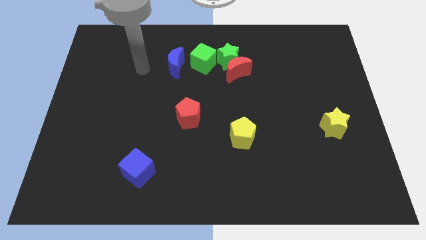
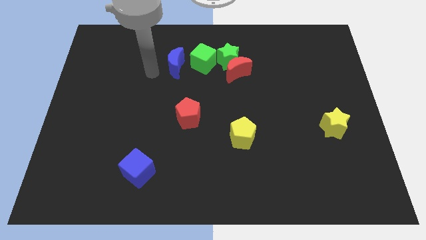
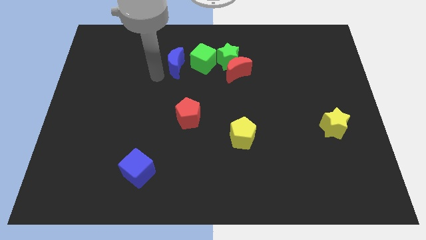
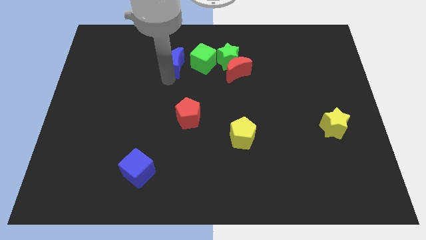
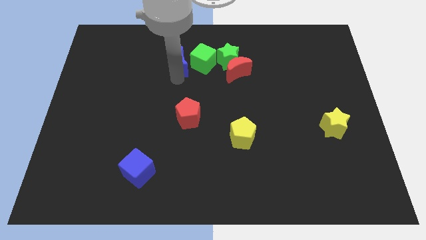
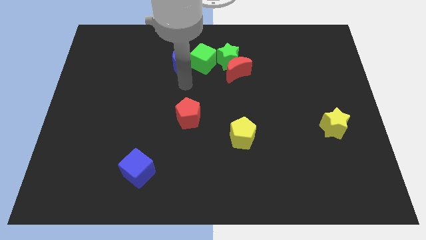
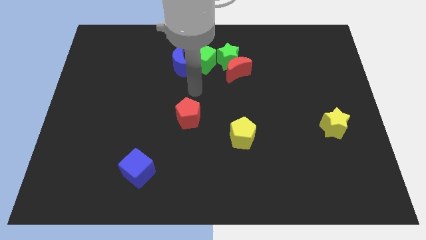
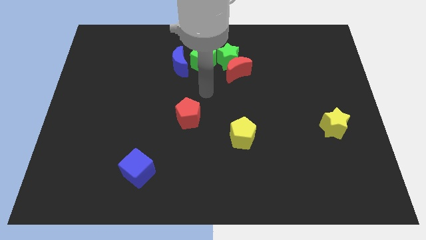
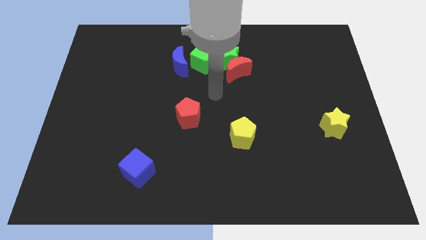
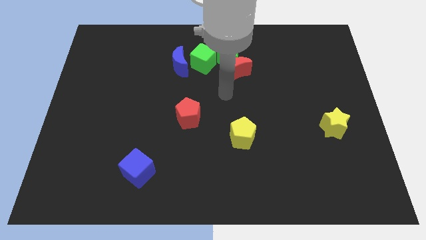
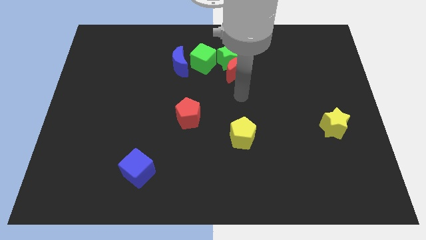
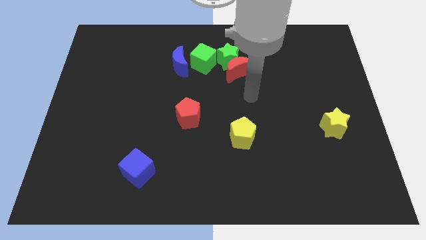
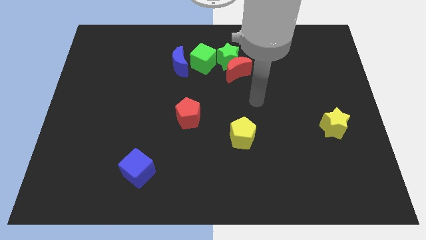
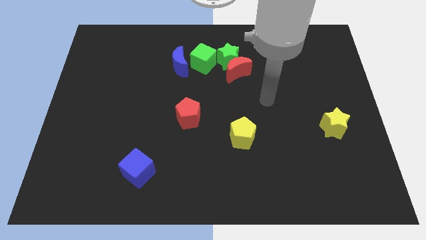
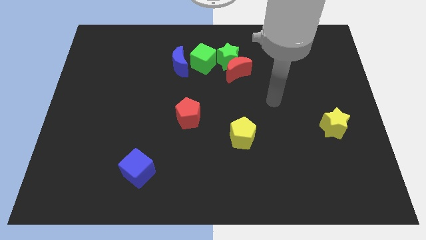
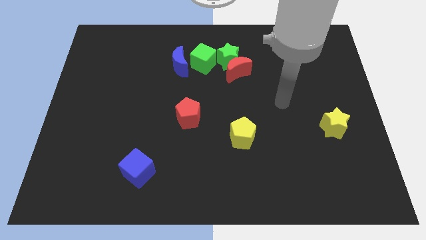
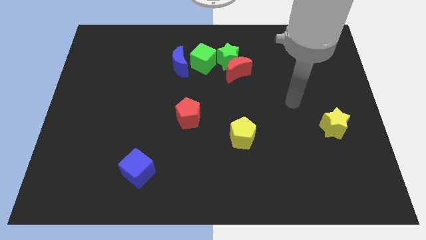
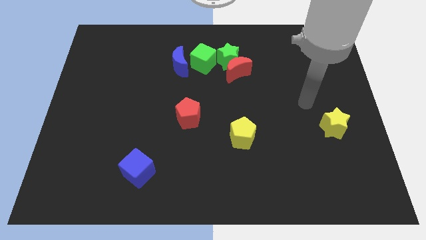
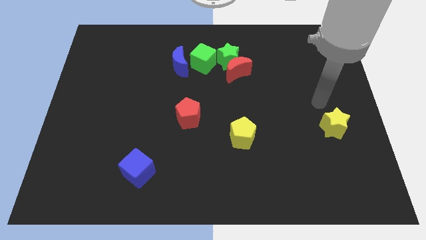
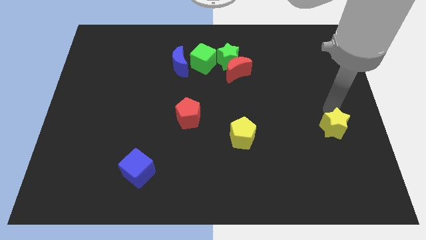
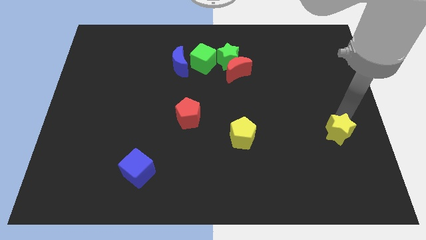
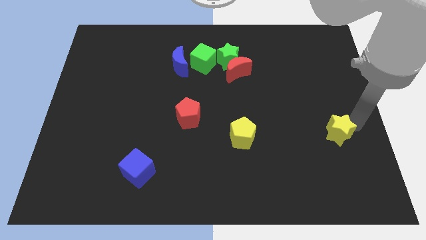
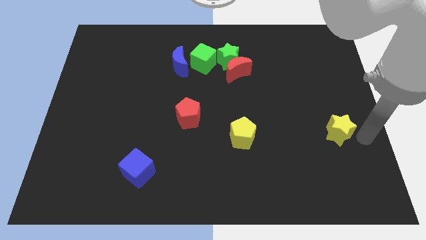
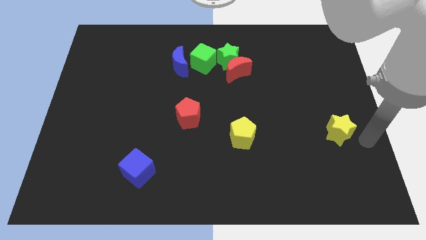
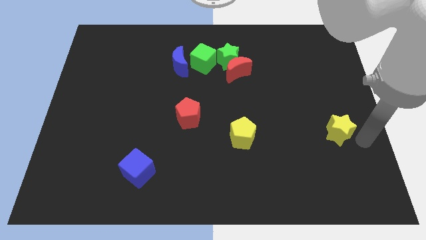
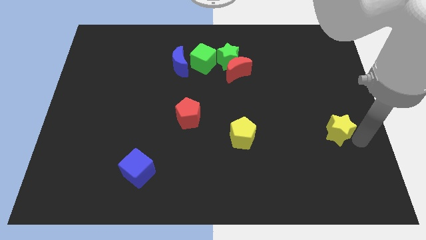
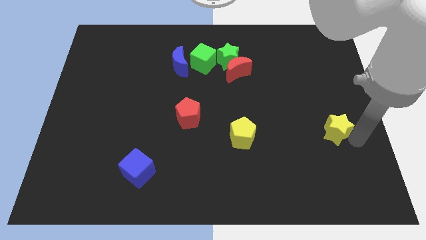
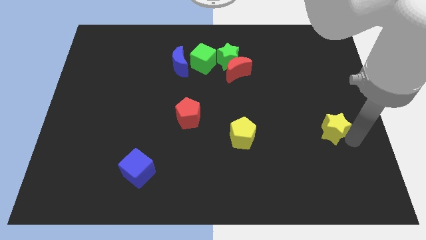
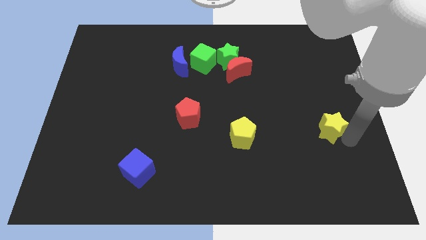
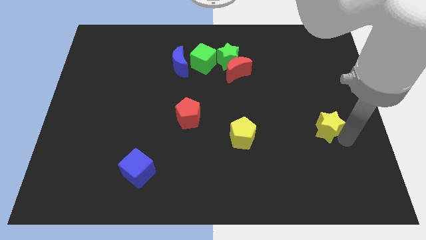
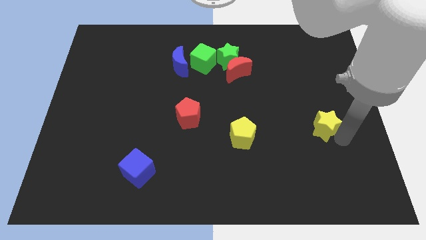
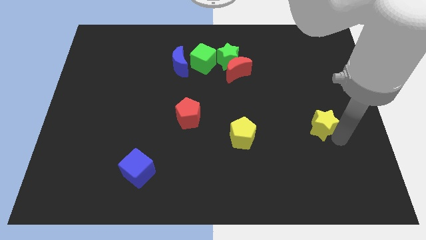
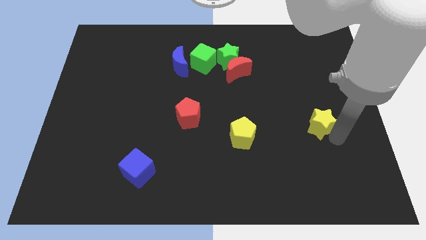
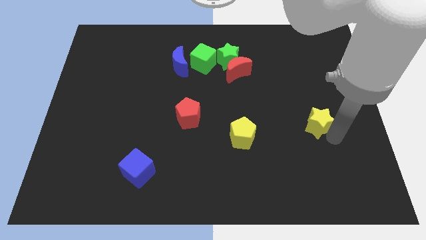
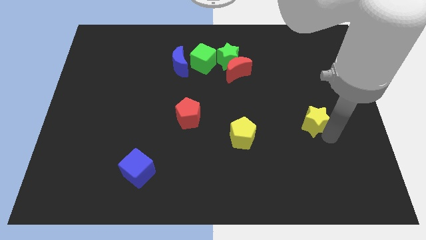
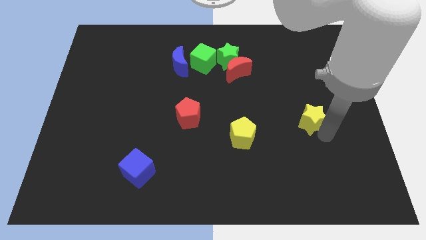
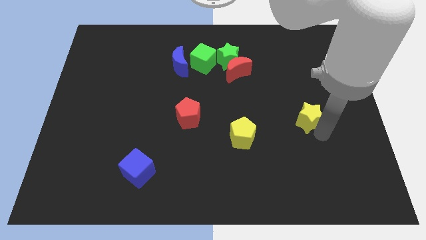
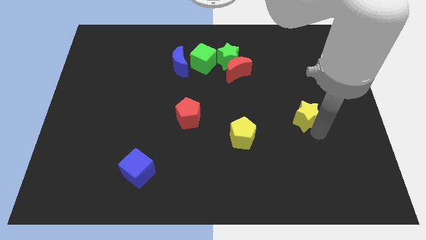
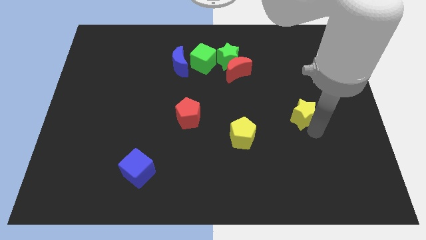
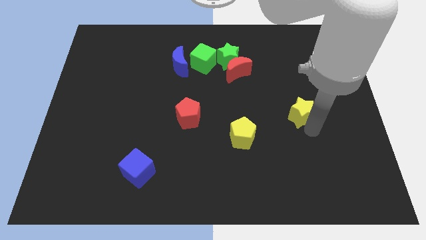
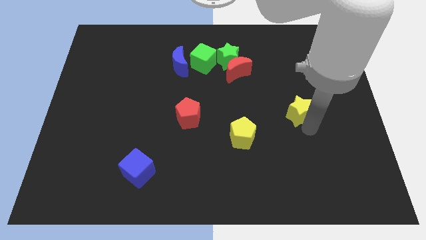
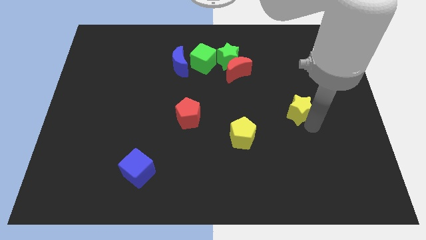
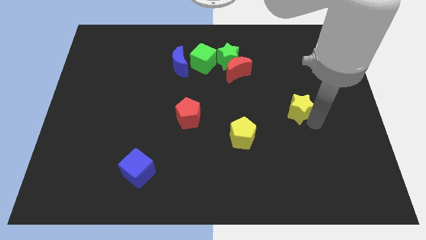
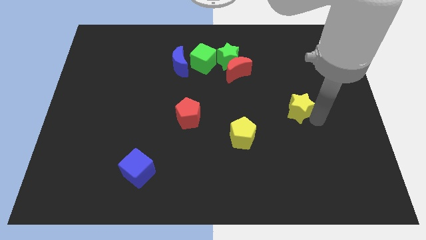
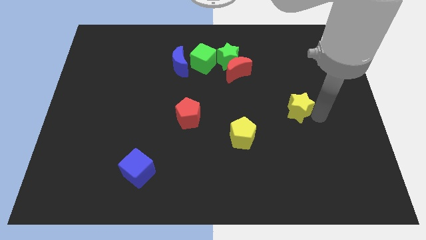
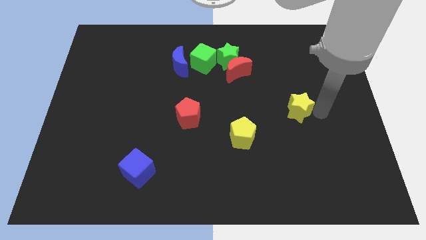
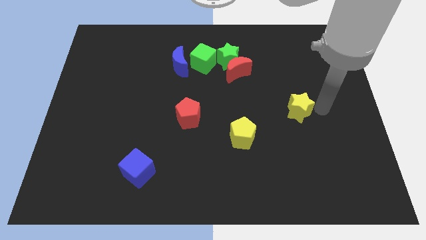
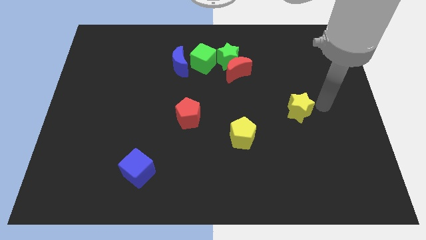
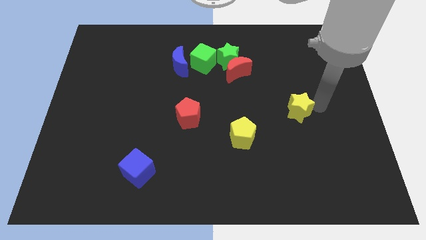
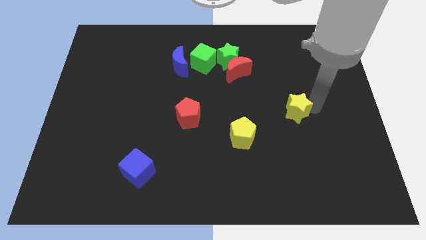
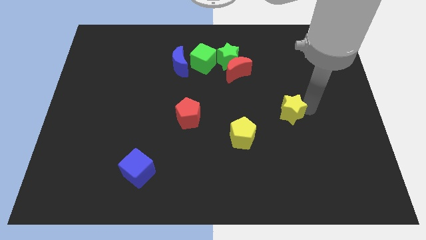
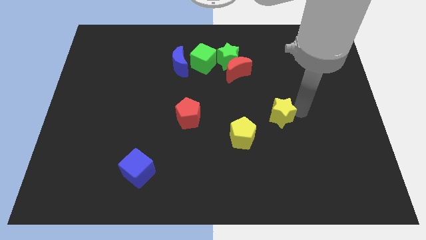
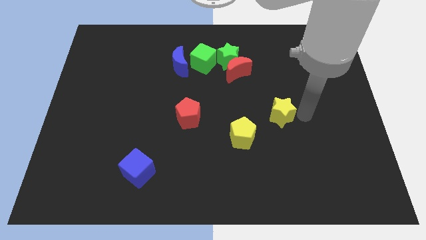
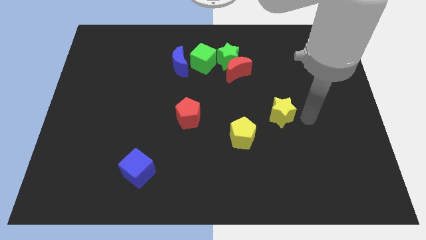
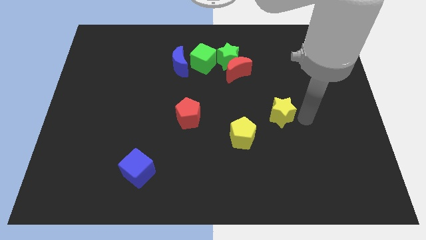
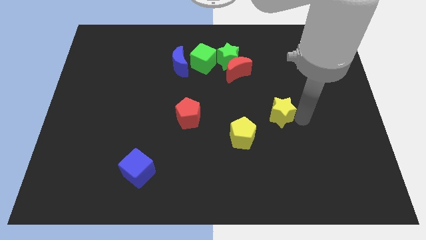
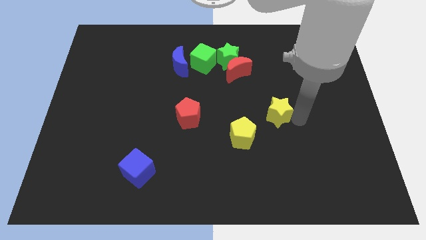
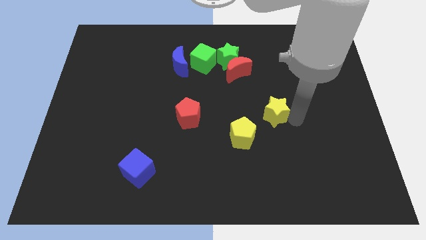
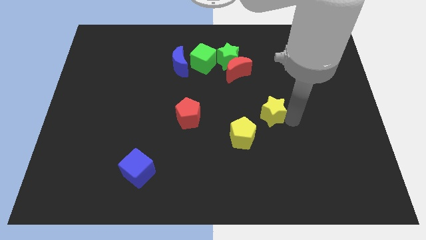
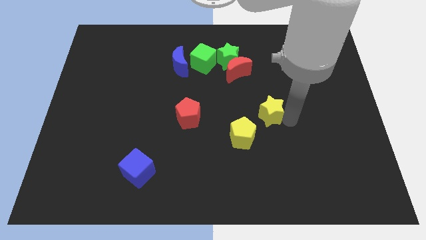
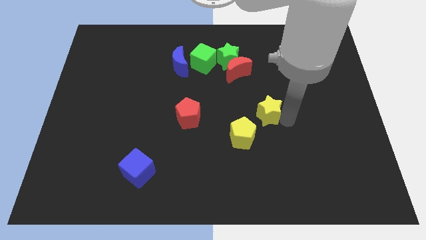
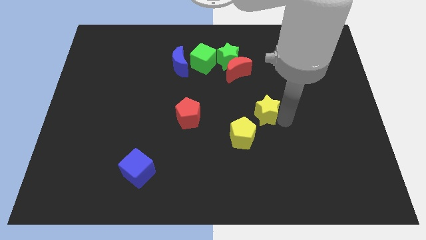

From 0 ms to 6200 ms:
put the yellow star to the middle

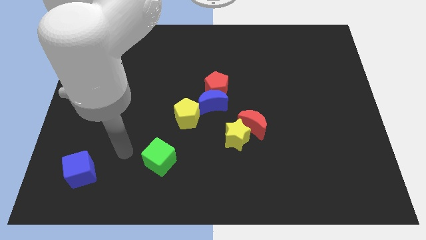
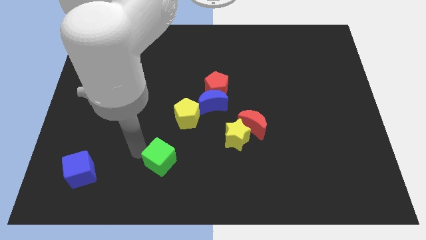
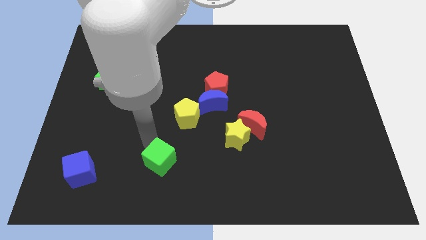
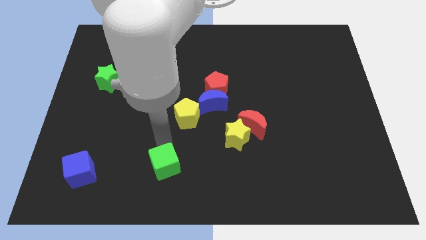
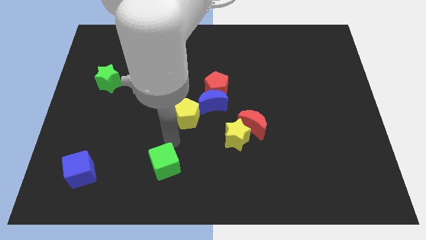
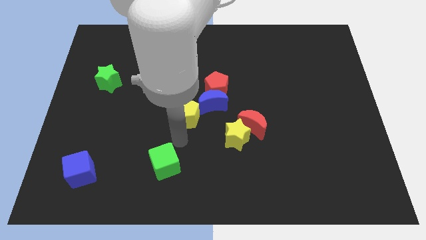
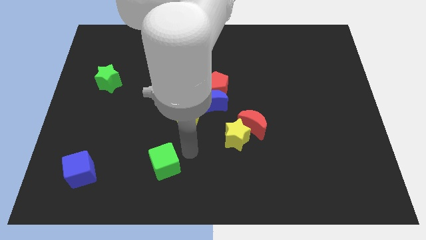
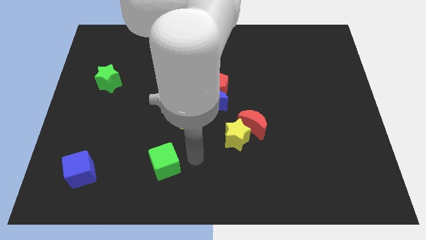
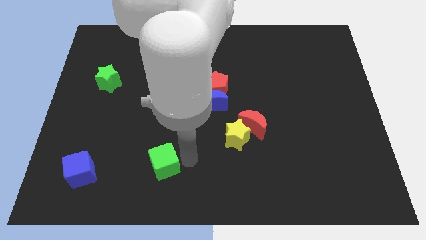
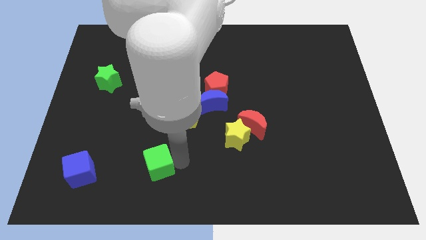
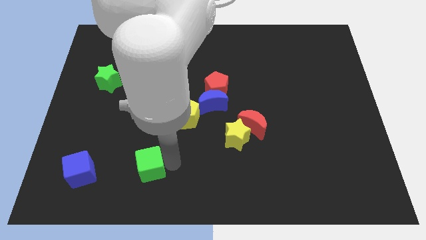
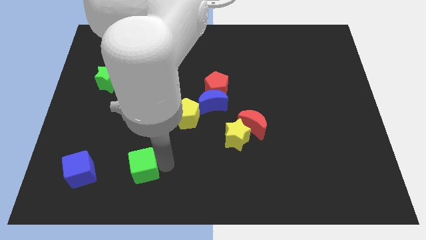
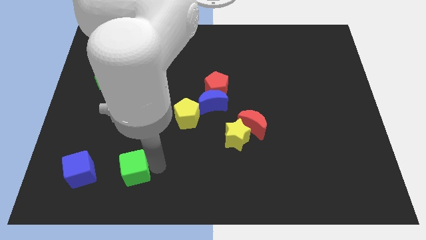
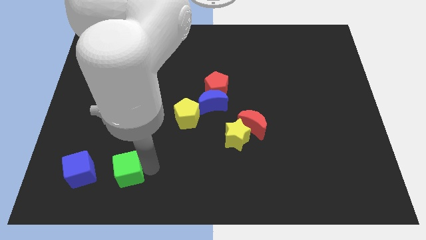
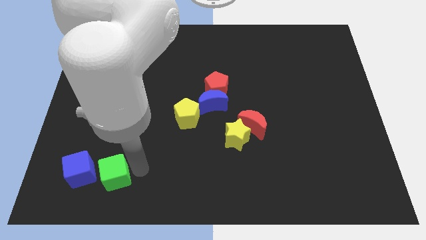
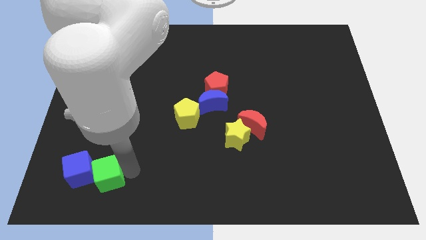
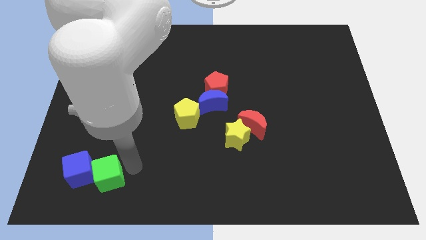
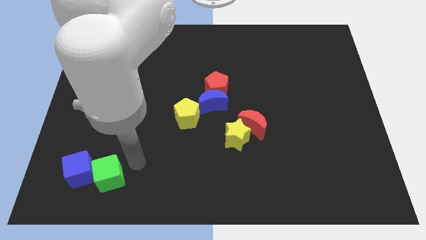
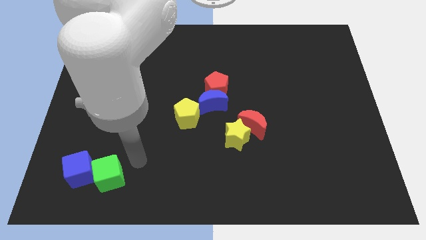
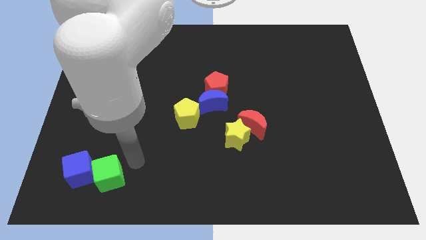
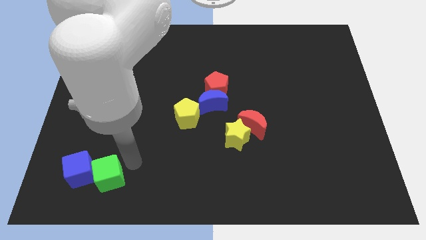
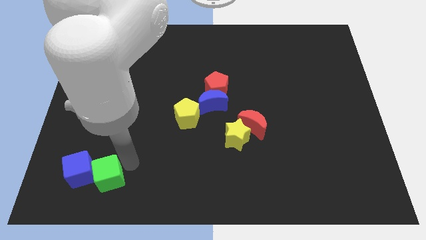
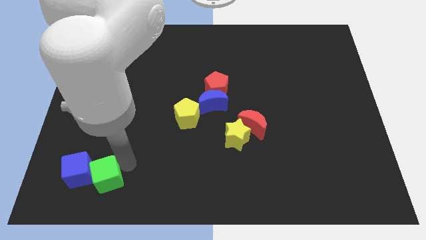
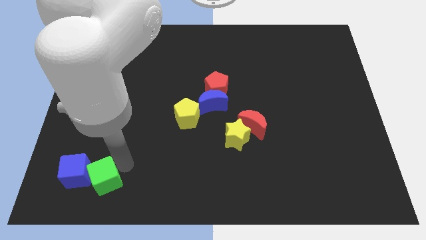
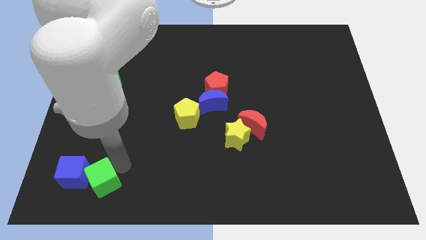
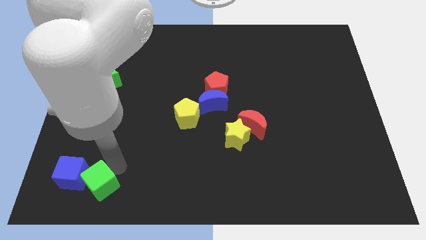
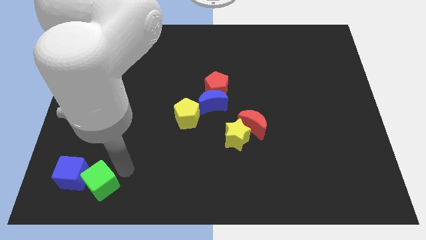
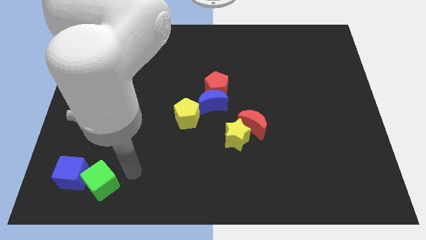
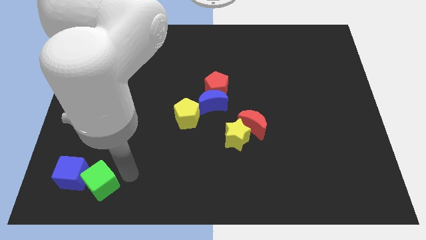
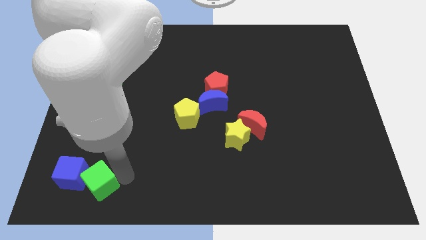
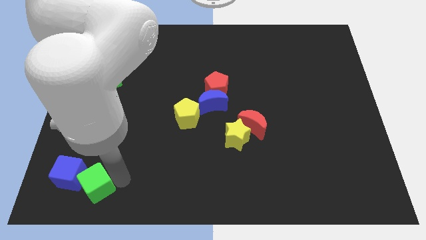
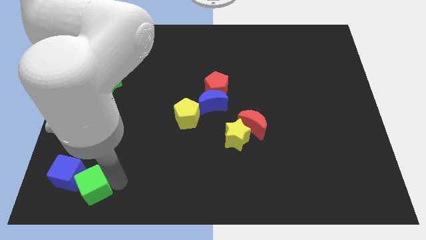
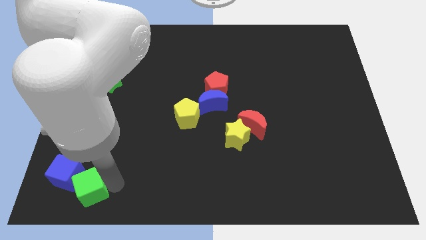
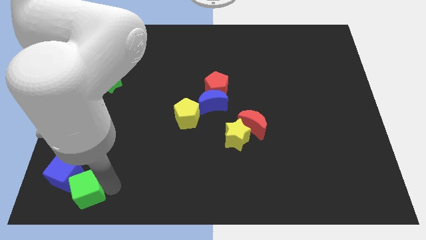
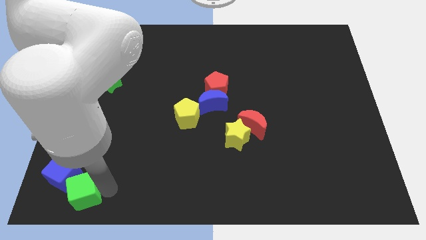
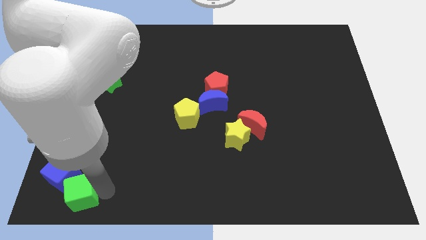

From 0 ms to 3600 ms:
put the green cube to the bottom left
